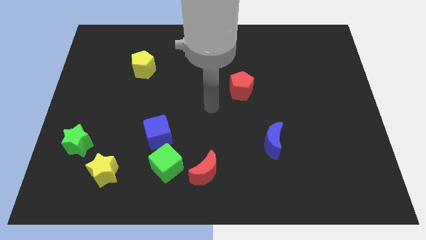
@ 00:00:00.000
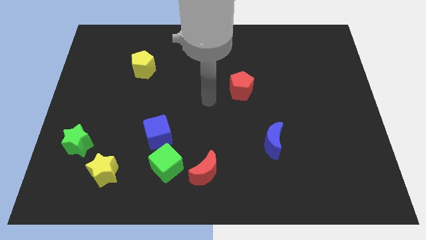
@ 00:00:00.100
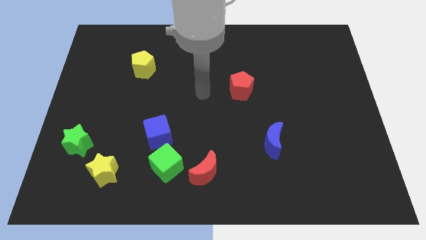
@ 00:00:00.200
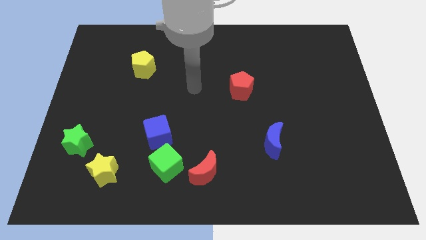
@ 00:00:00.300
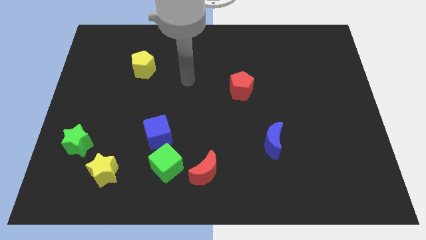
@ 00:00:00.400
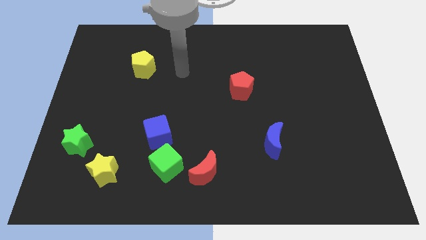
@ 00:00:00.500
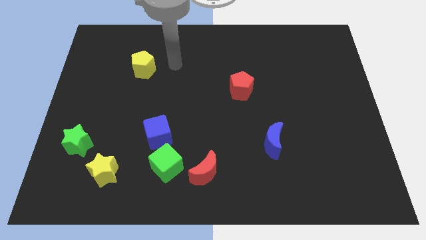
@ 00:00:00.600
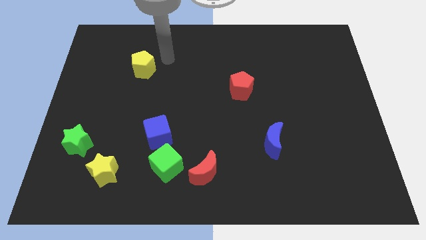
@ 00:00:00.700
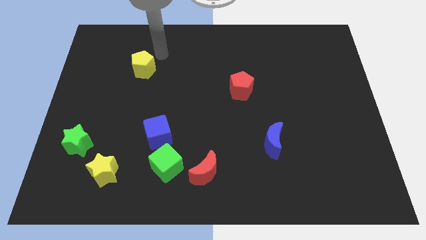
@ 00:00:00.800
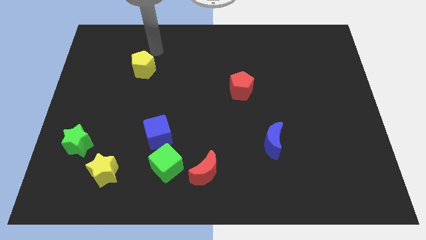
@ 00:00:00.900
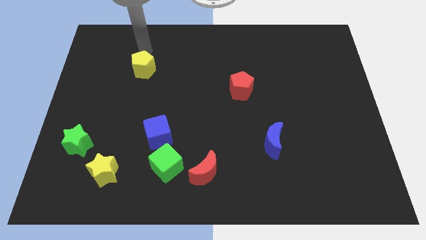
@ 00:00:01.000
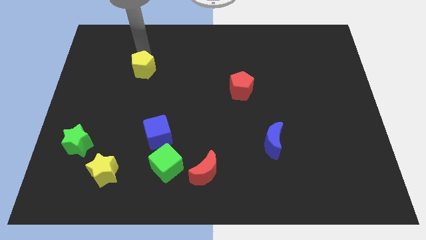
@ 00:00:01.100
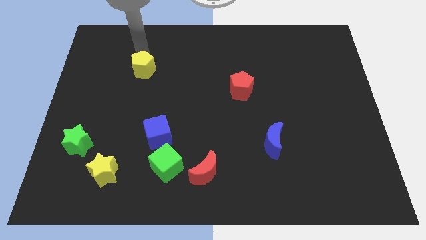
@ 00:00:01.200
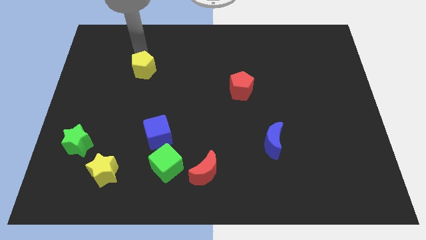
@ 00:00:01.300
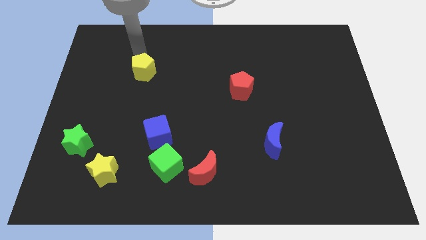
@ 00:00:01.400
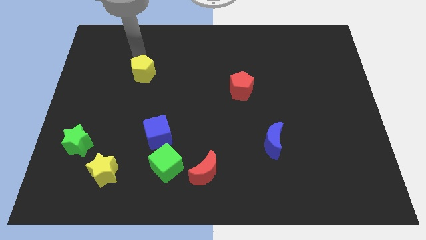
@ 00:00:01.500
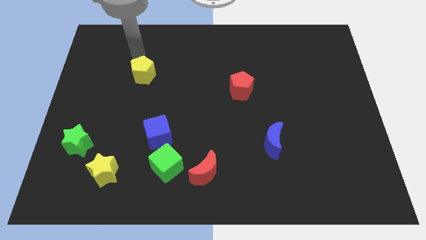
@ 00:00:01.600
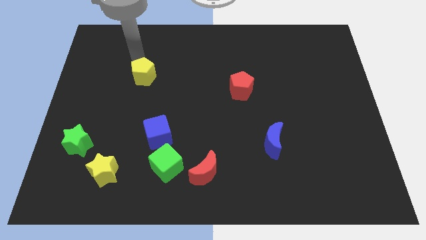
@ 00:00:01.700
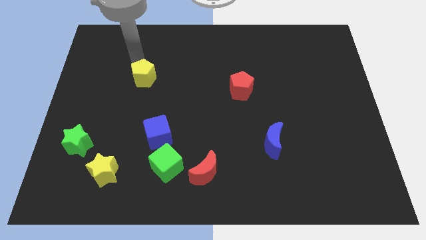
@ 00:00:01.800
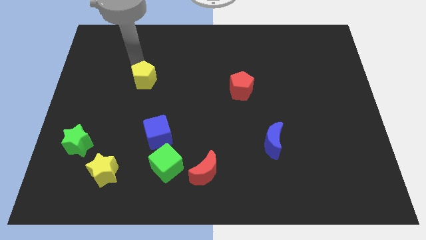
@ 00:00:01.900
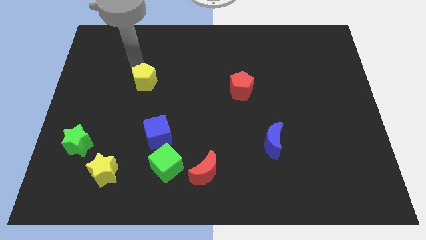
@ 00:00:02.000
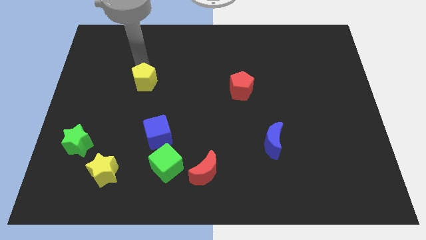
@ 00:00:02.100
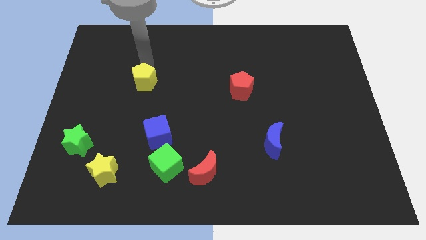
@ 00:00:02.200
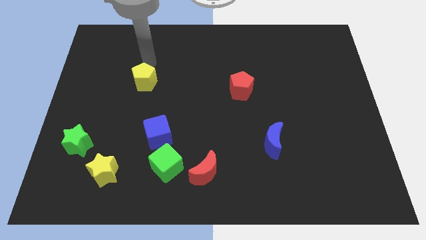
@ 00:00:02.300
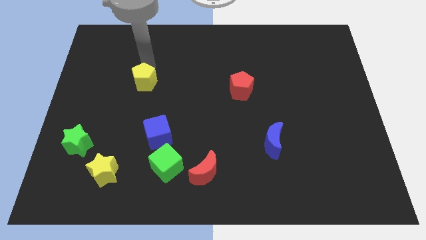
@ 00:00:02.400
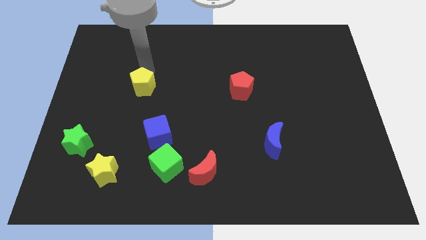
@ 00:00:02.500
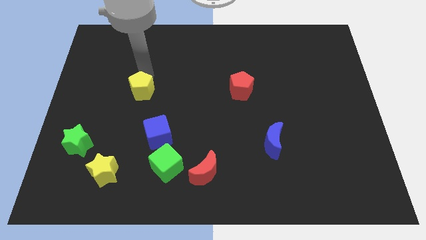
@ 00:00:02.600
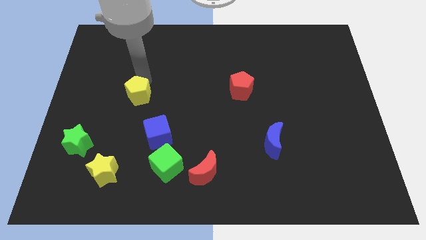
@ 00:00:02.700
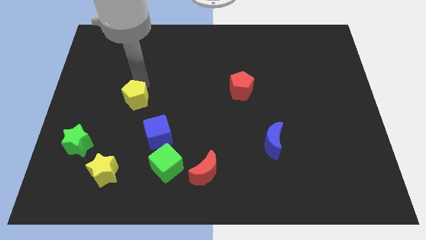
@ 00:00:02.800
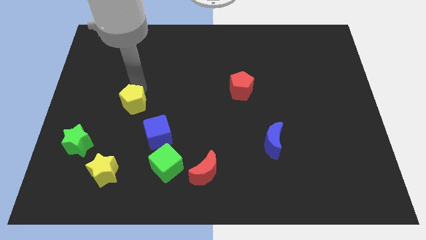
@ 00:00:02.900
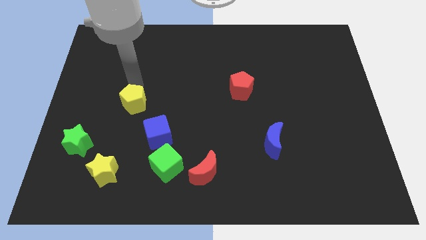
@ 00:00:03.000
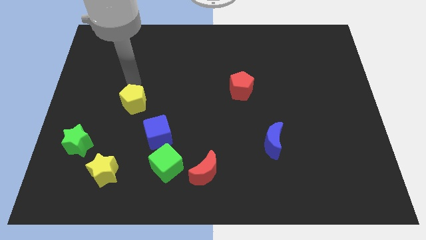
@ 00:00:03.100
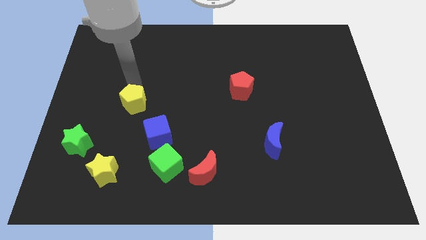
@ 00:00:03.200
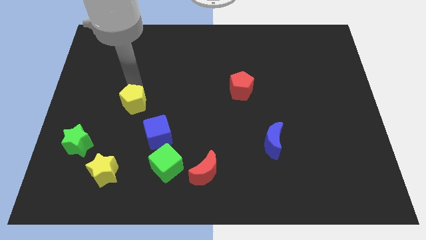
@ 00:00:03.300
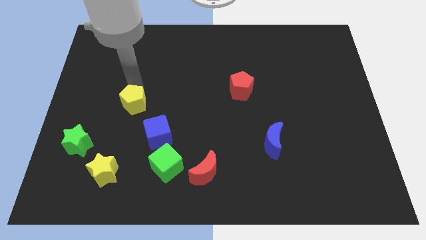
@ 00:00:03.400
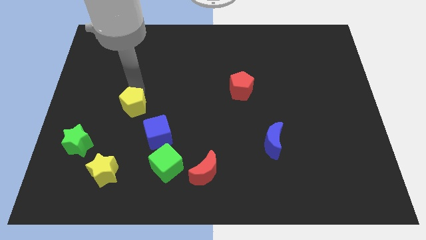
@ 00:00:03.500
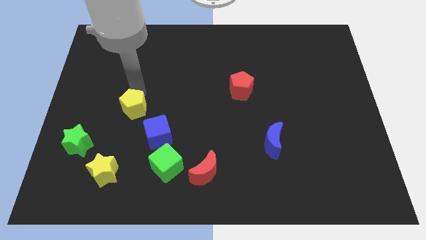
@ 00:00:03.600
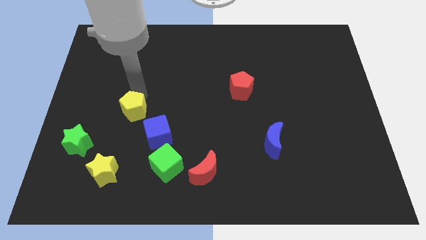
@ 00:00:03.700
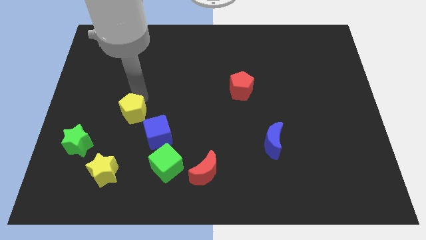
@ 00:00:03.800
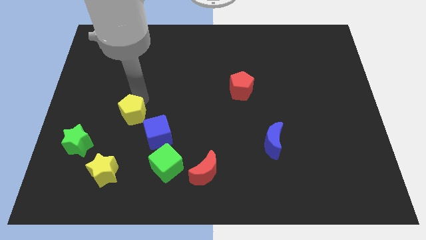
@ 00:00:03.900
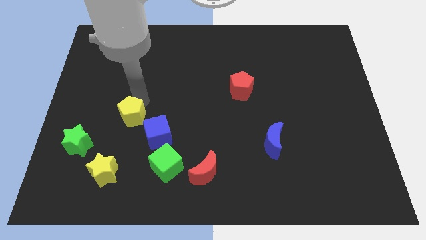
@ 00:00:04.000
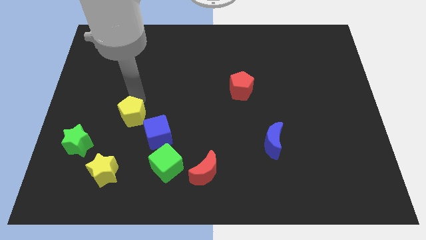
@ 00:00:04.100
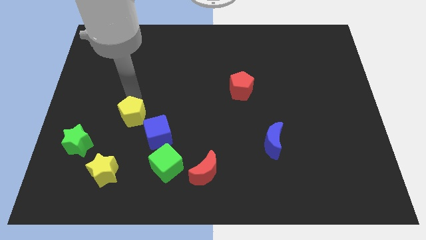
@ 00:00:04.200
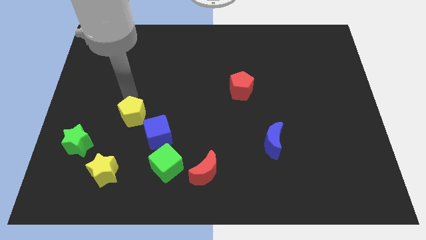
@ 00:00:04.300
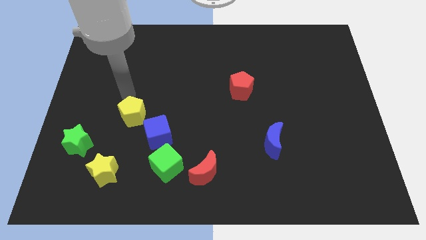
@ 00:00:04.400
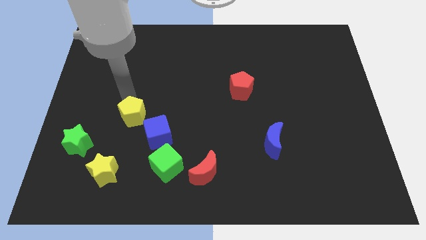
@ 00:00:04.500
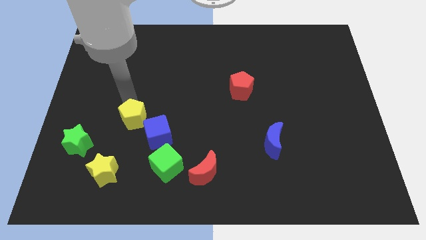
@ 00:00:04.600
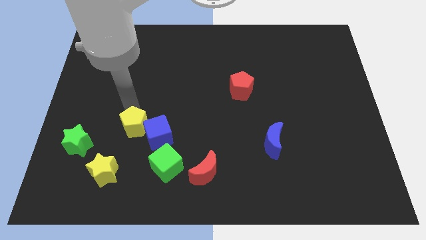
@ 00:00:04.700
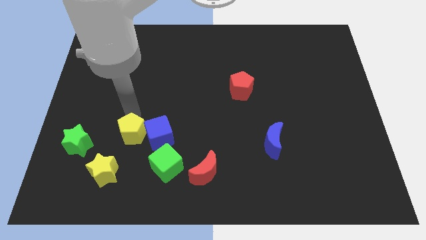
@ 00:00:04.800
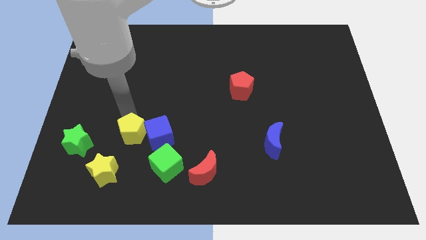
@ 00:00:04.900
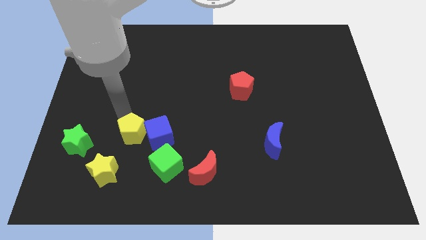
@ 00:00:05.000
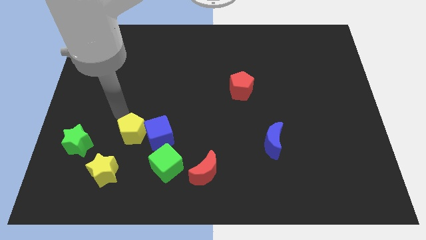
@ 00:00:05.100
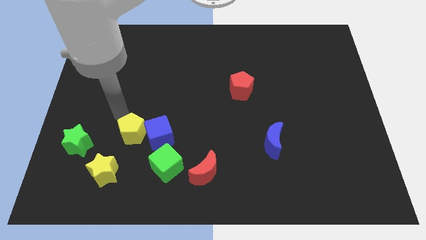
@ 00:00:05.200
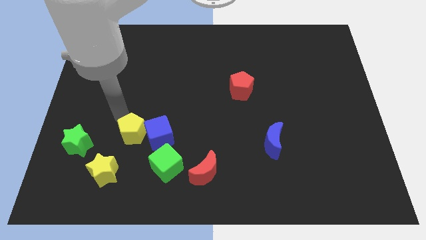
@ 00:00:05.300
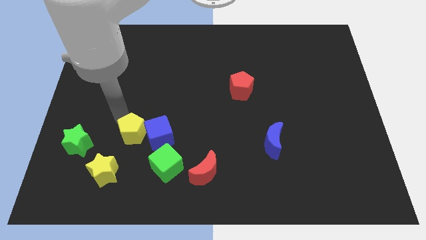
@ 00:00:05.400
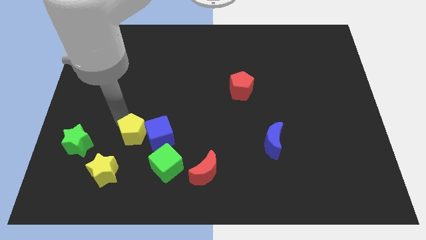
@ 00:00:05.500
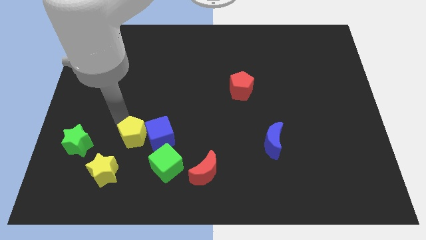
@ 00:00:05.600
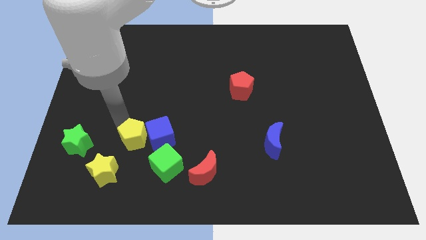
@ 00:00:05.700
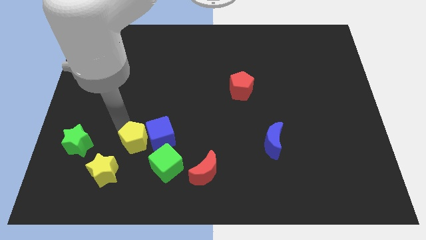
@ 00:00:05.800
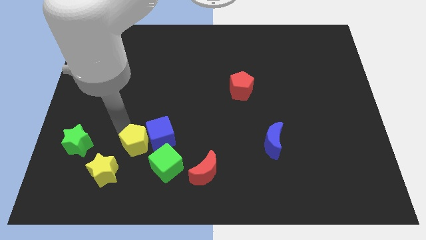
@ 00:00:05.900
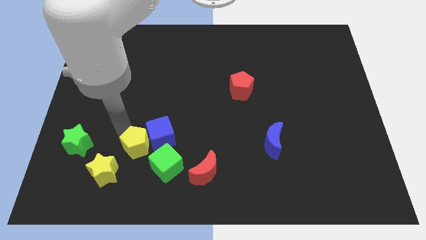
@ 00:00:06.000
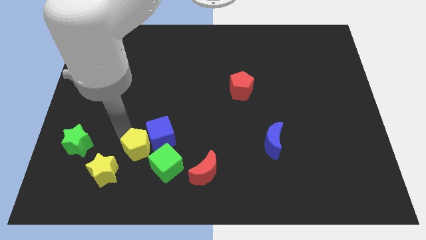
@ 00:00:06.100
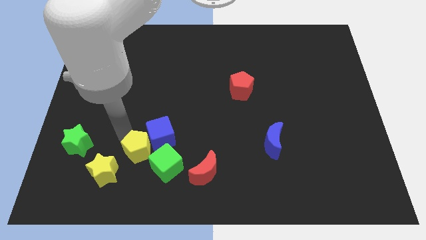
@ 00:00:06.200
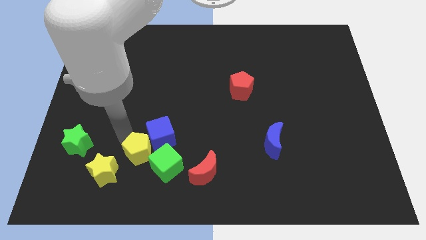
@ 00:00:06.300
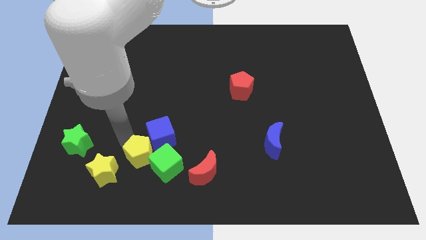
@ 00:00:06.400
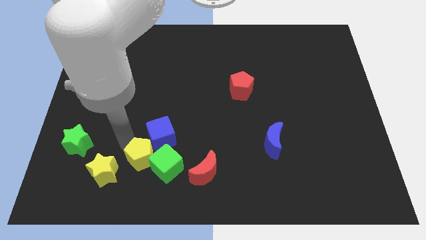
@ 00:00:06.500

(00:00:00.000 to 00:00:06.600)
put the yellow pentagon to the green cube

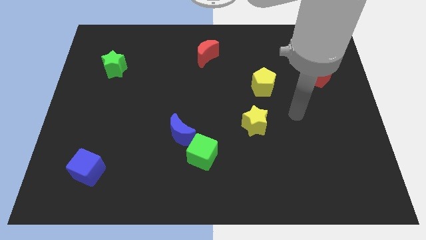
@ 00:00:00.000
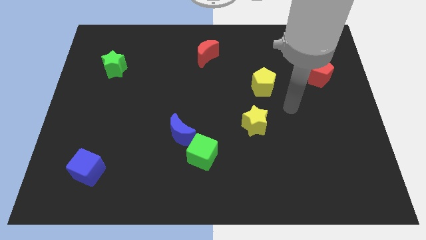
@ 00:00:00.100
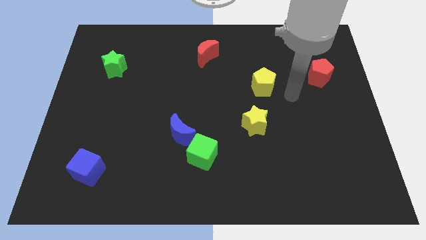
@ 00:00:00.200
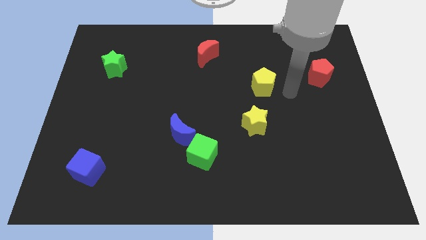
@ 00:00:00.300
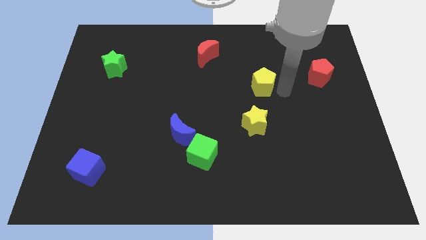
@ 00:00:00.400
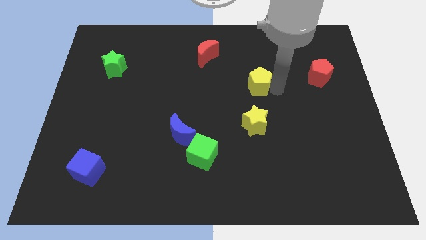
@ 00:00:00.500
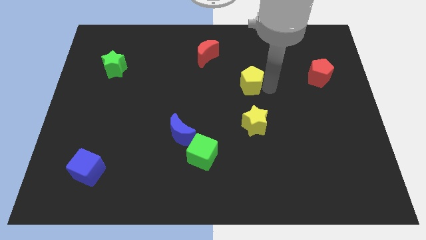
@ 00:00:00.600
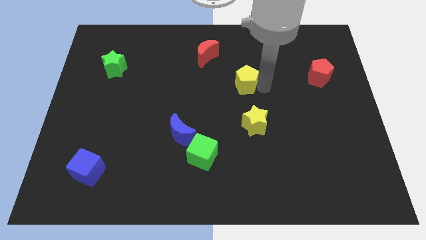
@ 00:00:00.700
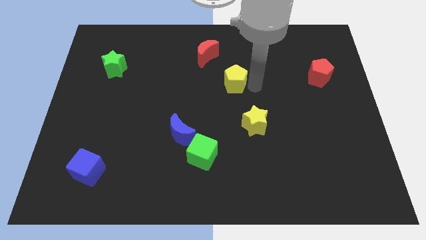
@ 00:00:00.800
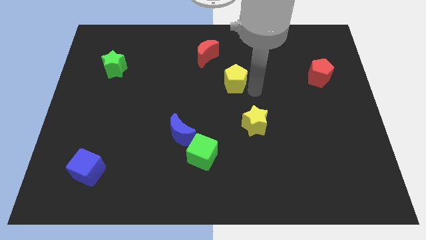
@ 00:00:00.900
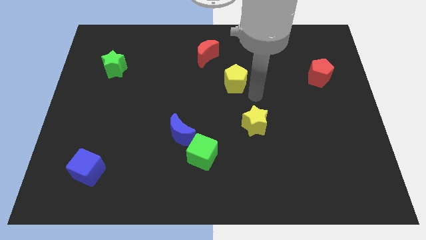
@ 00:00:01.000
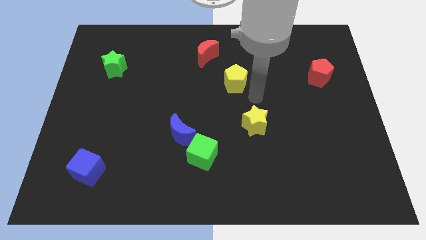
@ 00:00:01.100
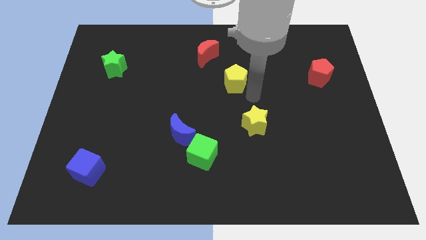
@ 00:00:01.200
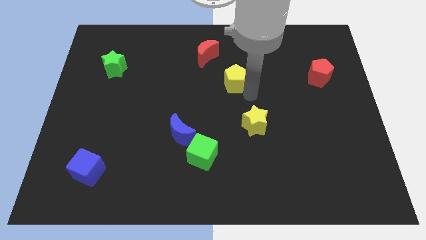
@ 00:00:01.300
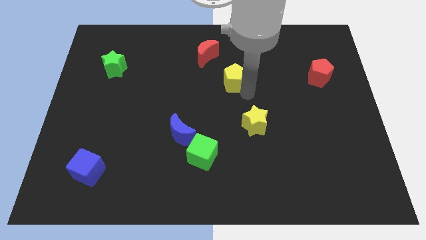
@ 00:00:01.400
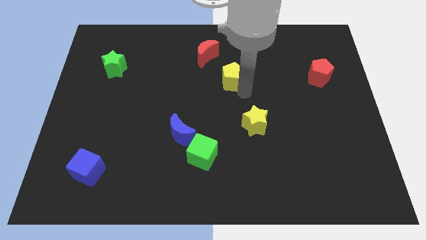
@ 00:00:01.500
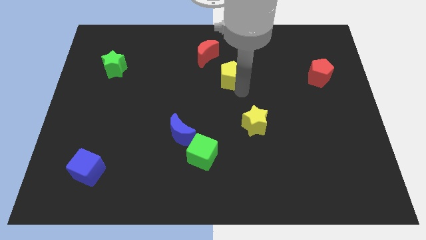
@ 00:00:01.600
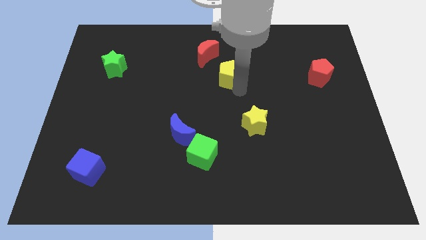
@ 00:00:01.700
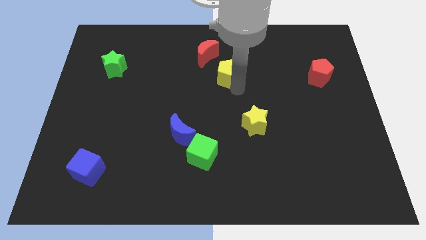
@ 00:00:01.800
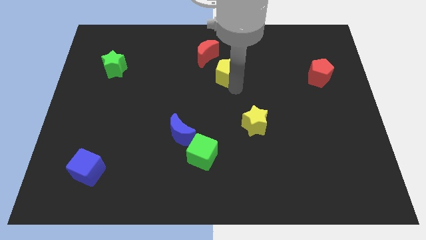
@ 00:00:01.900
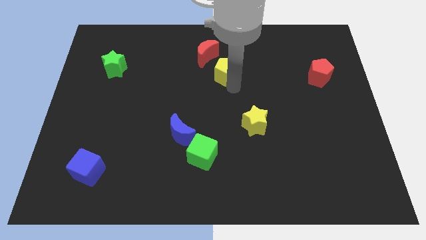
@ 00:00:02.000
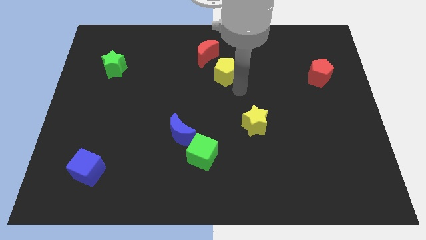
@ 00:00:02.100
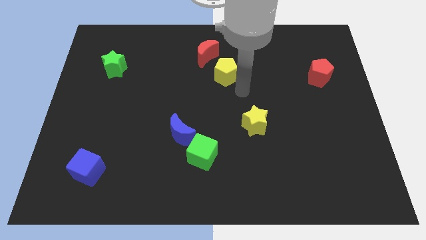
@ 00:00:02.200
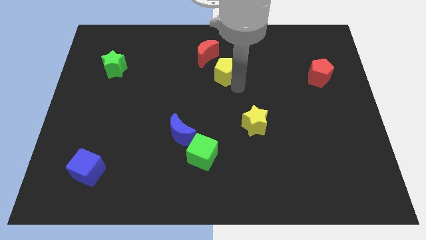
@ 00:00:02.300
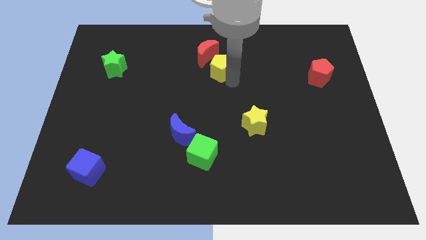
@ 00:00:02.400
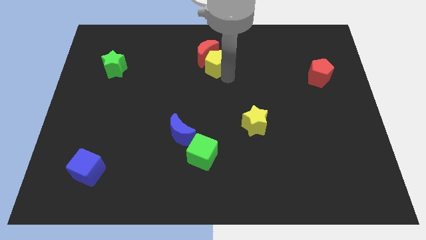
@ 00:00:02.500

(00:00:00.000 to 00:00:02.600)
slide the yellow pentagon to the red moon
